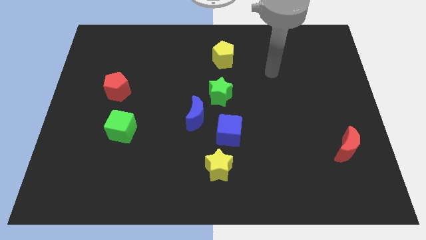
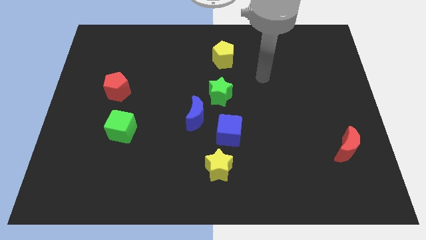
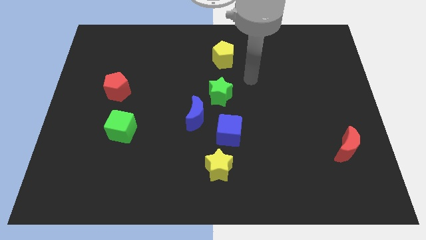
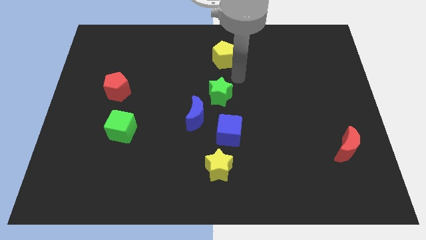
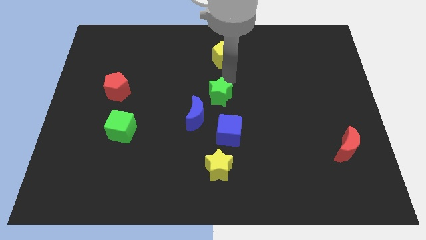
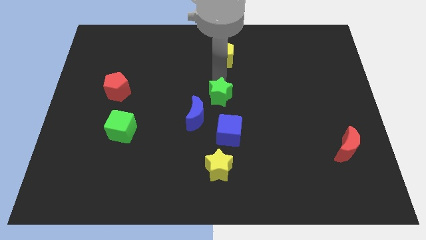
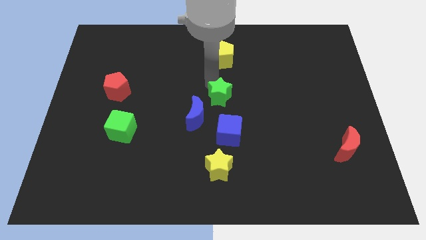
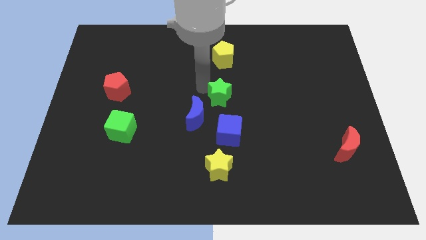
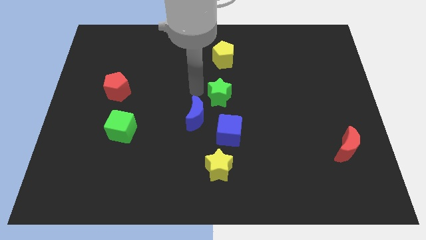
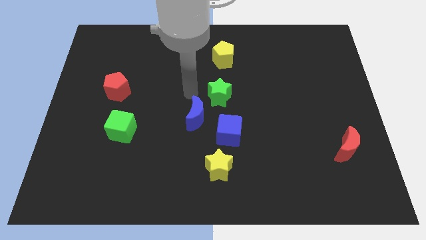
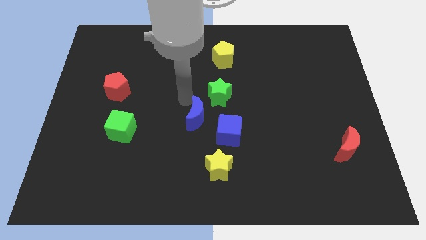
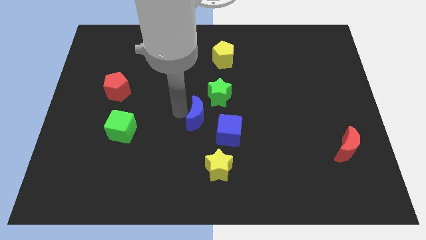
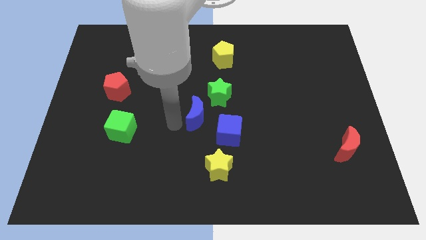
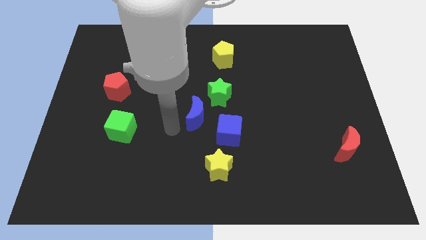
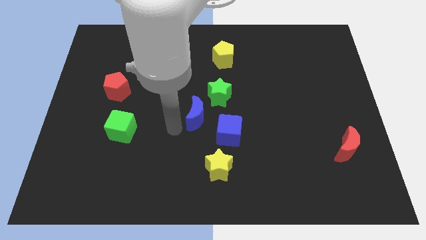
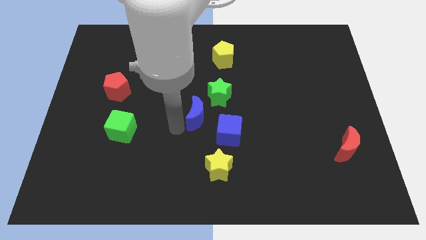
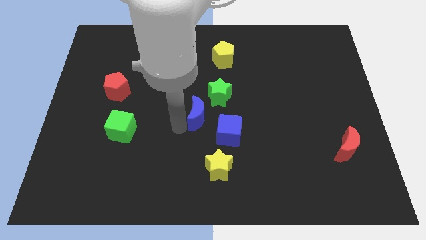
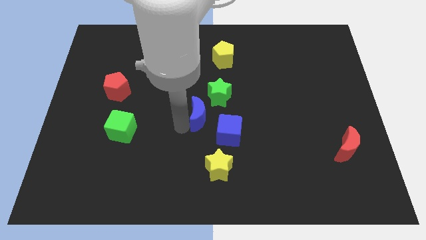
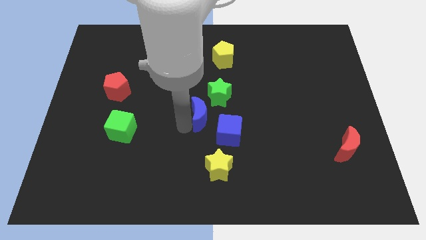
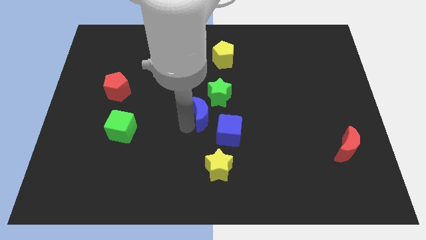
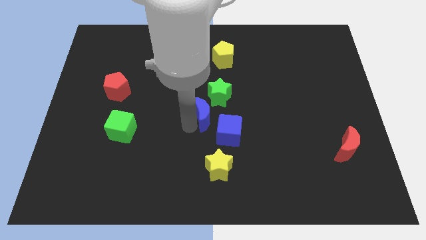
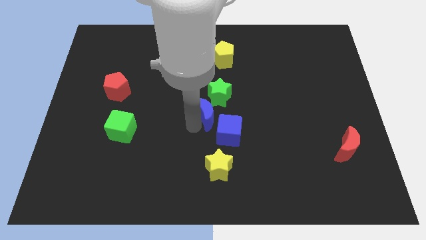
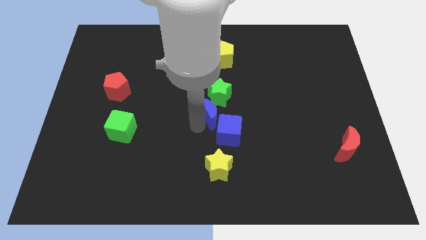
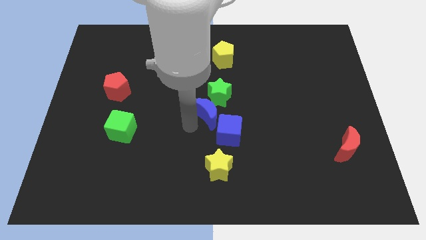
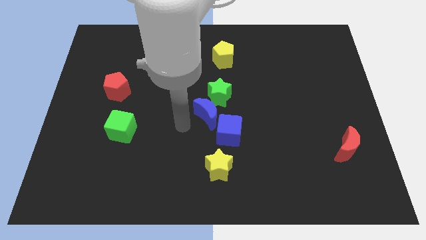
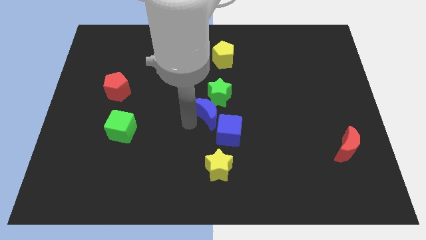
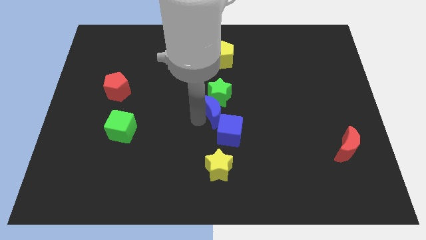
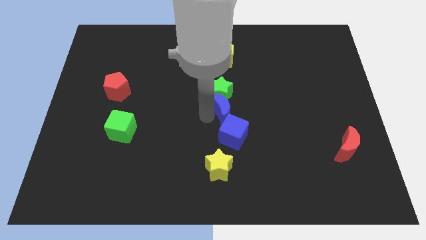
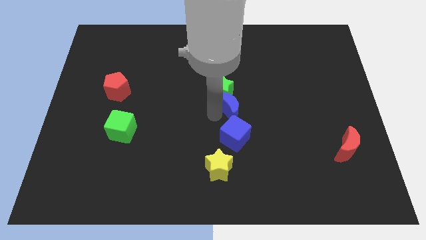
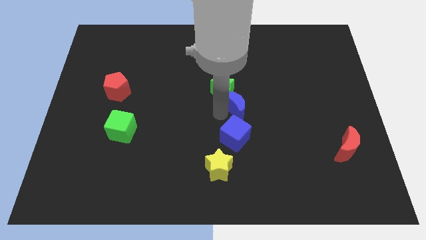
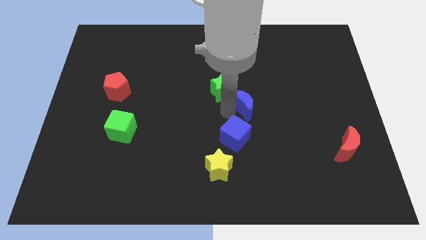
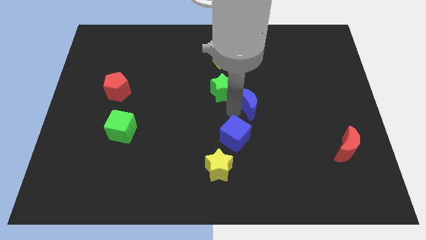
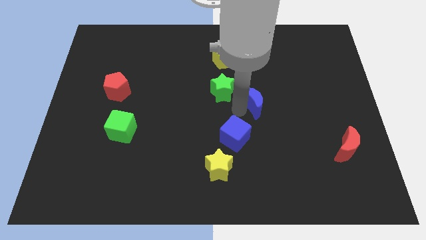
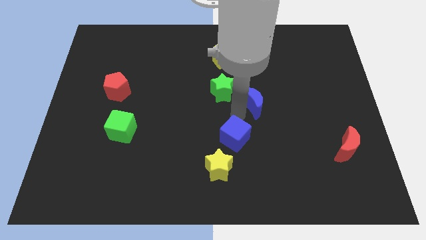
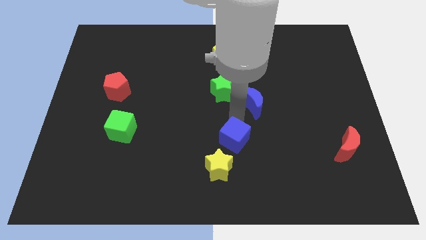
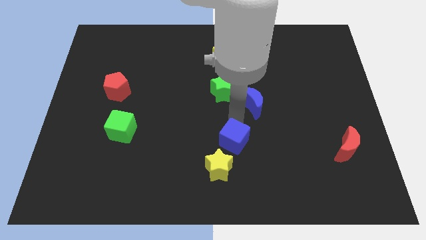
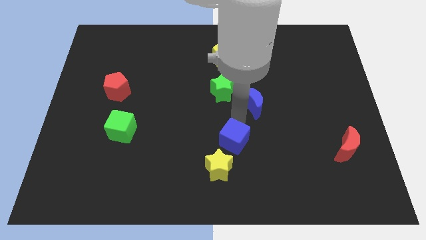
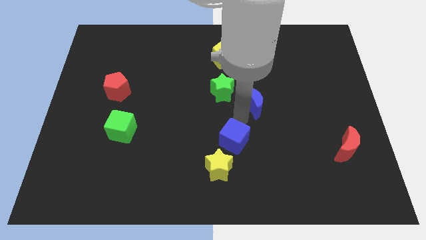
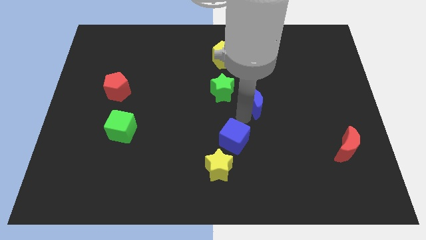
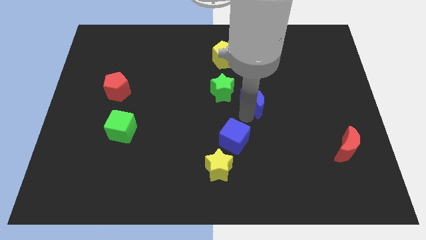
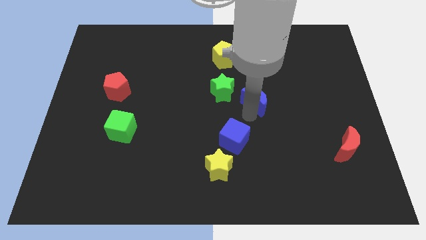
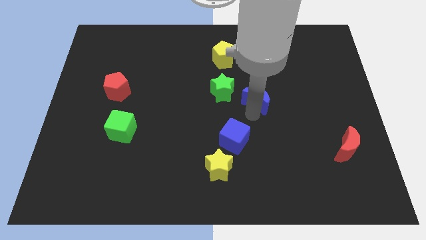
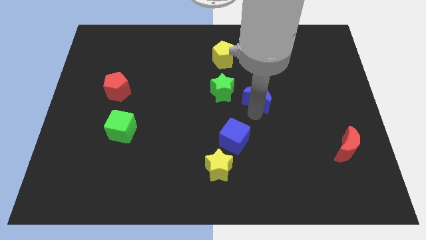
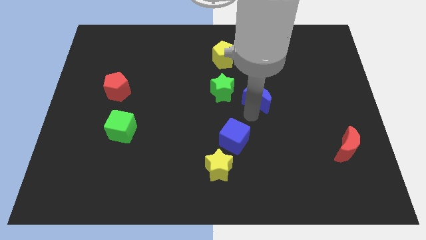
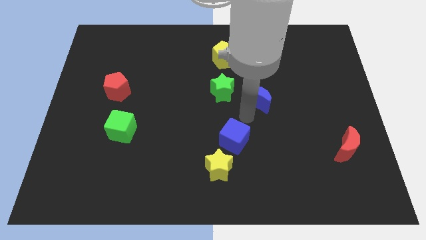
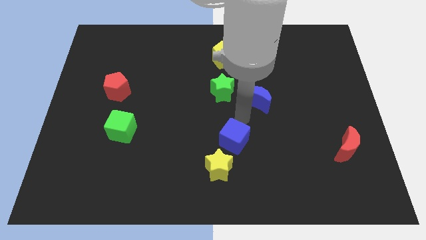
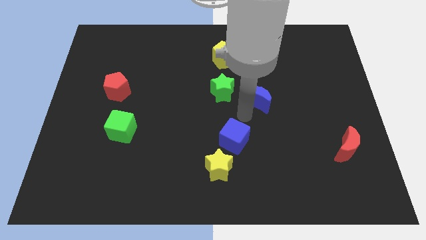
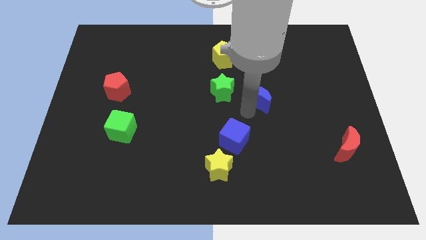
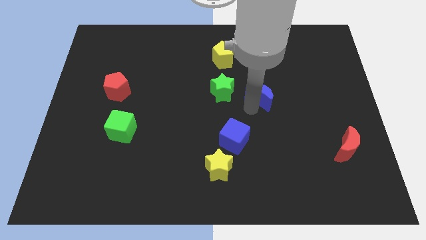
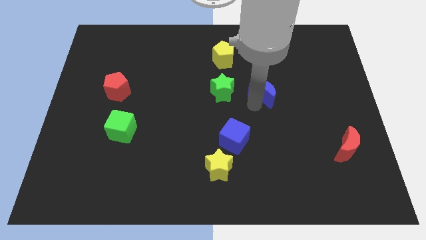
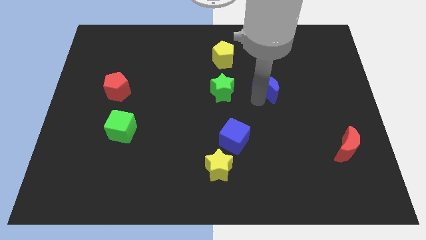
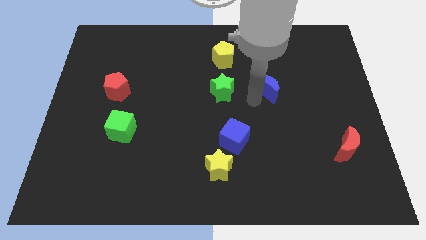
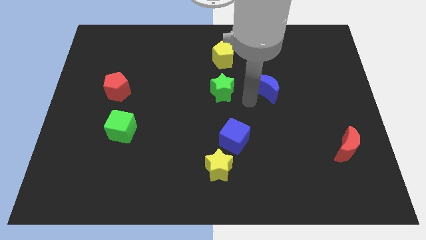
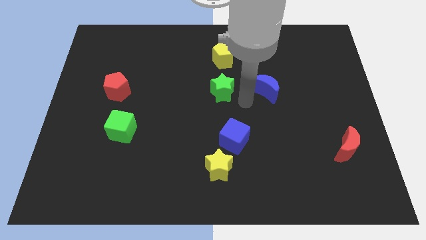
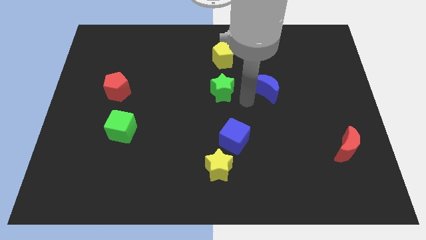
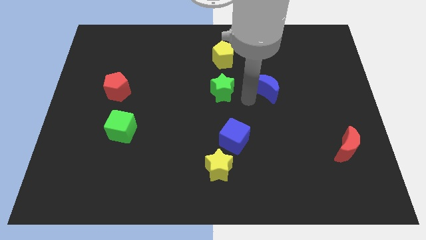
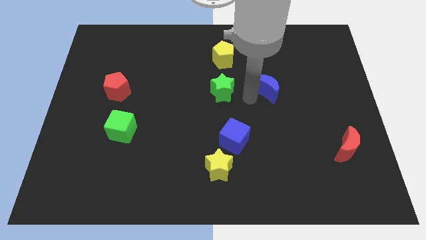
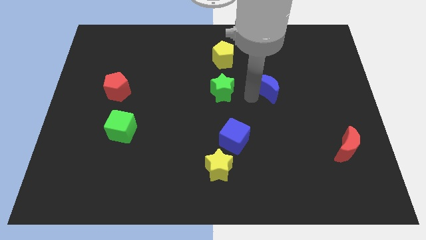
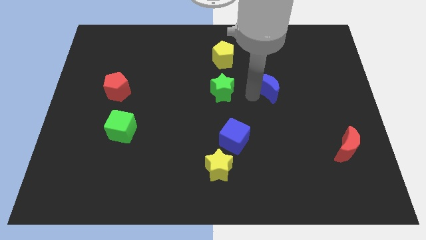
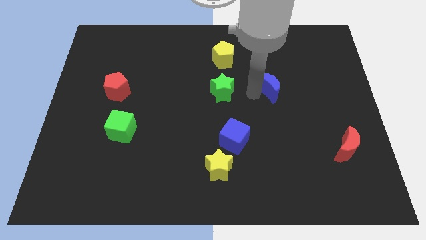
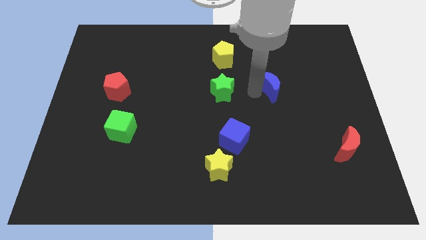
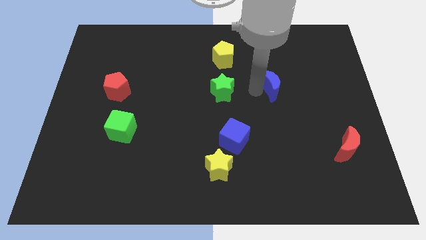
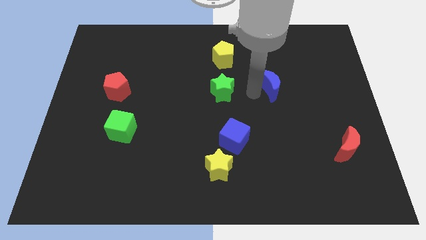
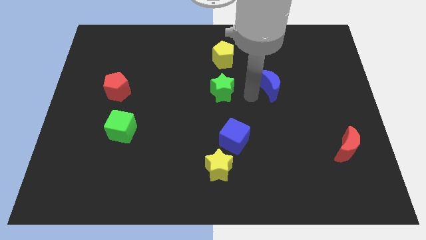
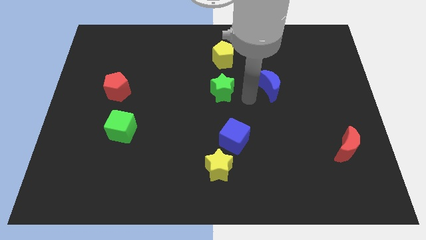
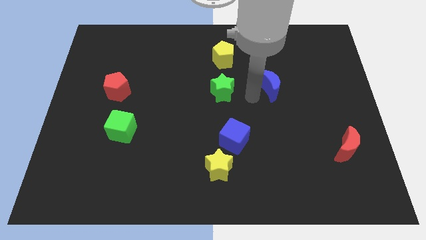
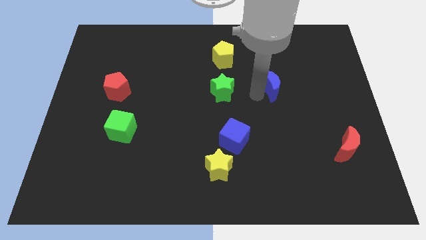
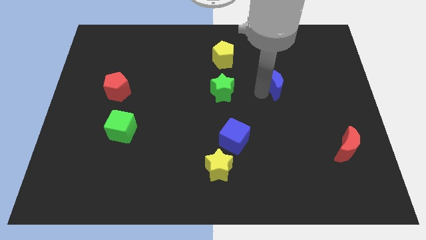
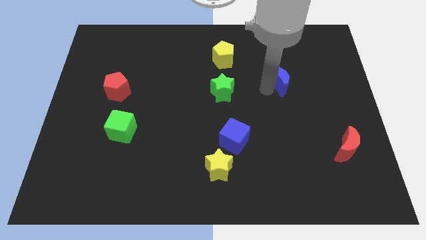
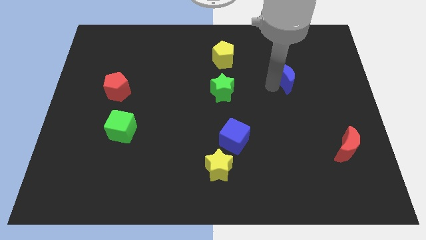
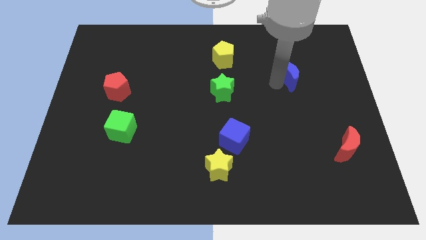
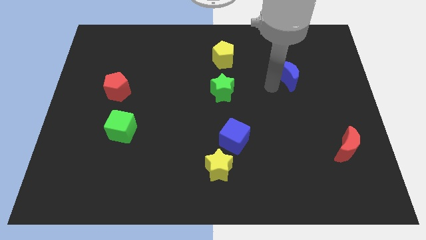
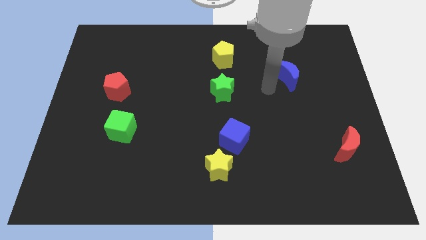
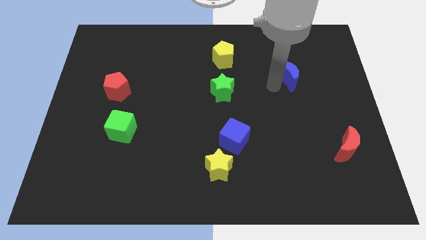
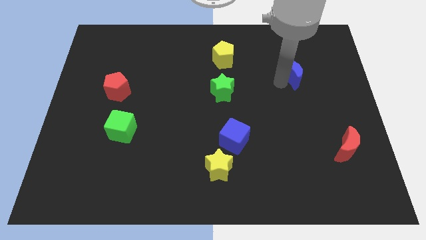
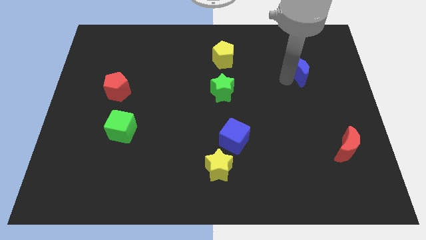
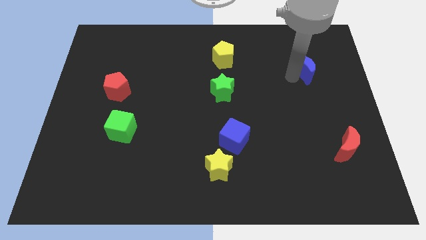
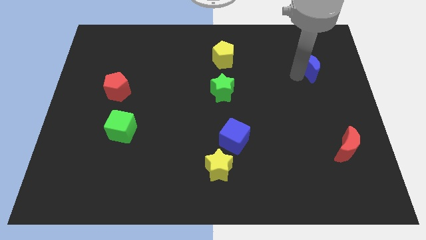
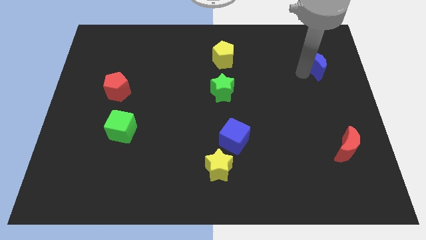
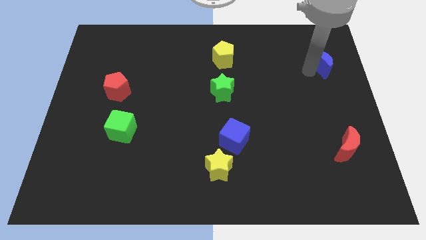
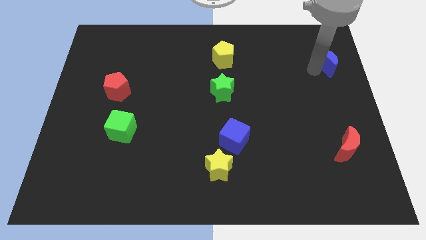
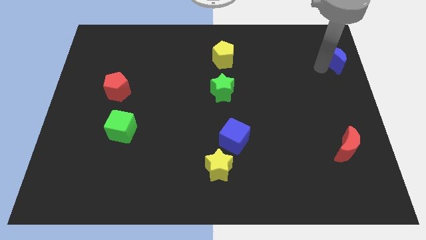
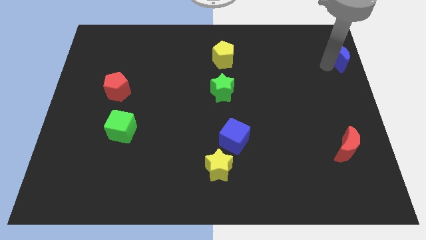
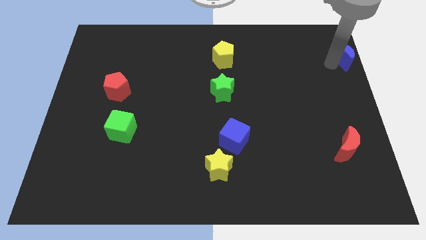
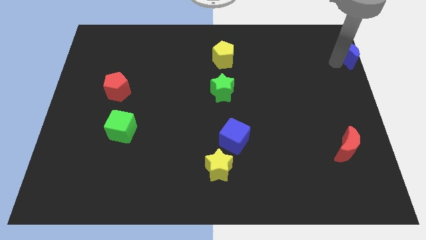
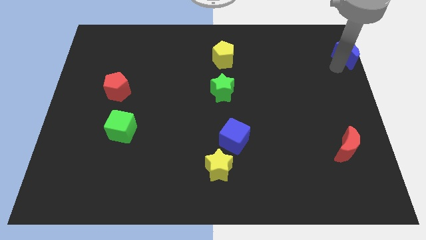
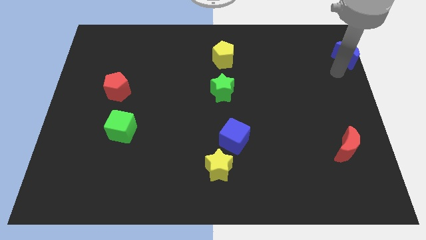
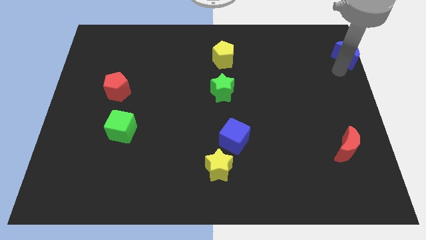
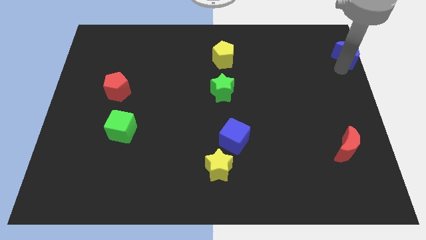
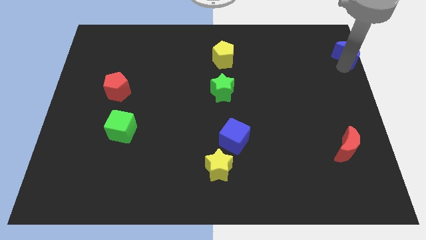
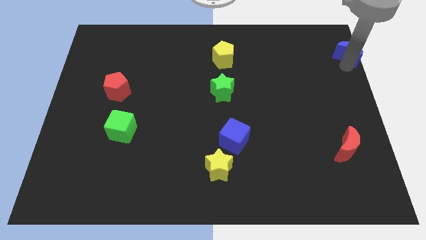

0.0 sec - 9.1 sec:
push the blue moon to the upper right corner
